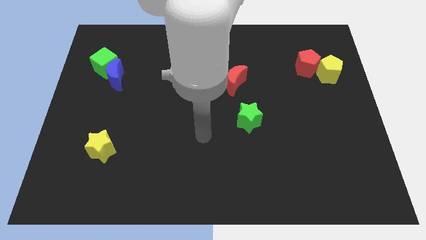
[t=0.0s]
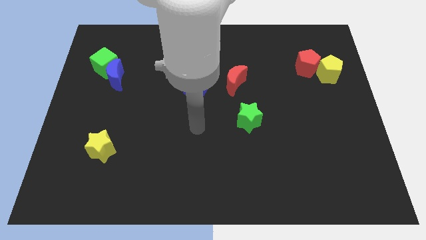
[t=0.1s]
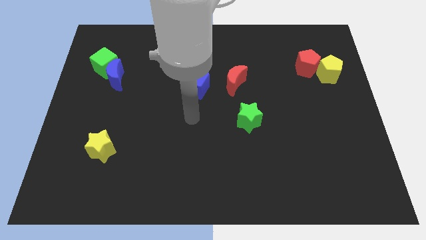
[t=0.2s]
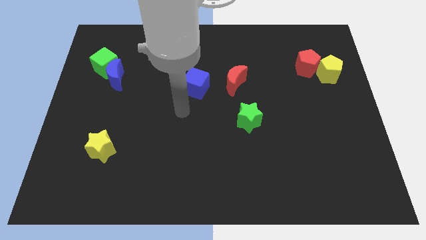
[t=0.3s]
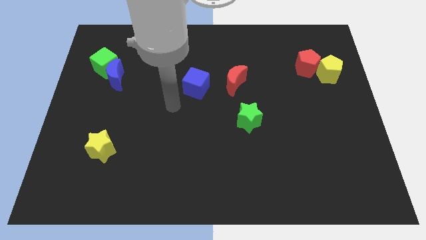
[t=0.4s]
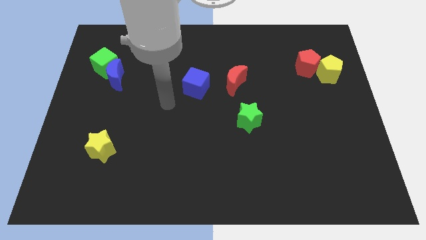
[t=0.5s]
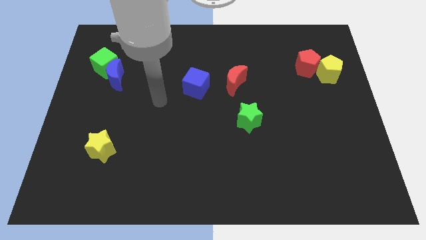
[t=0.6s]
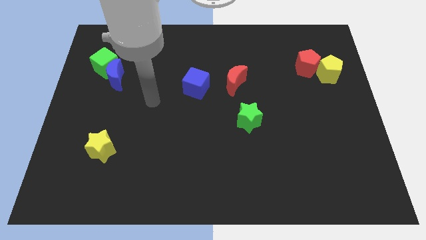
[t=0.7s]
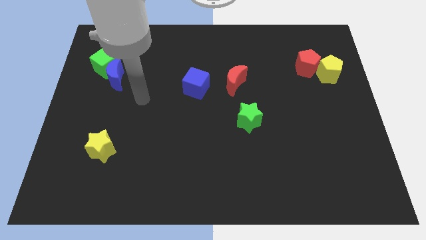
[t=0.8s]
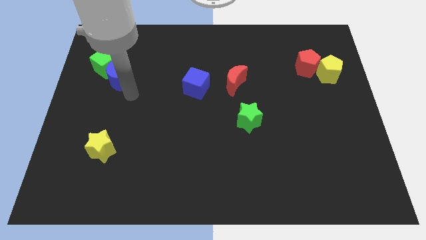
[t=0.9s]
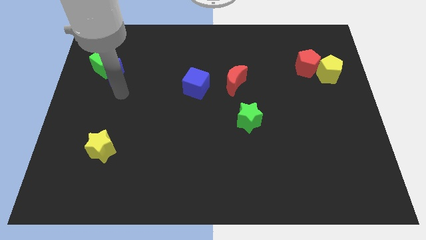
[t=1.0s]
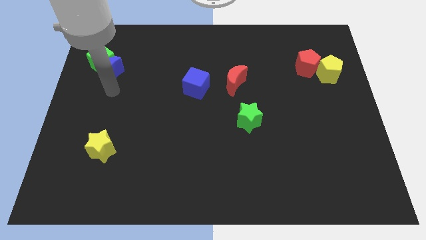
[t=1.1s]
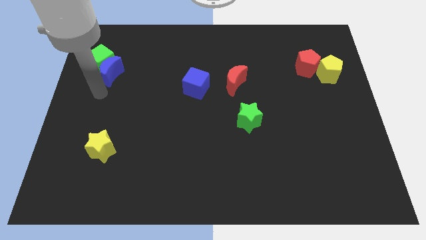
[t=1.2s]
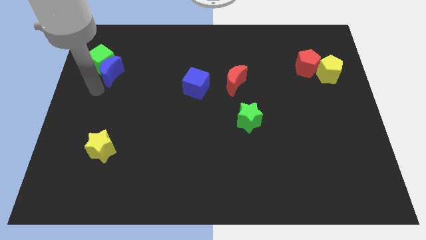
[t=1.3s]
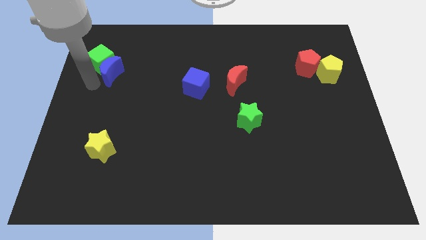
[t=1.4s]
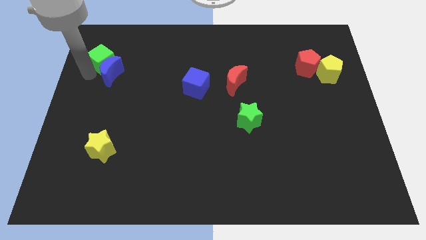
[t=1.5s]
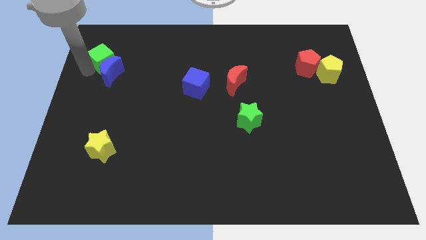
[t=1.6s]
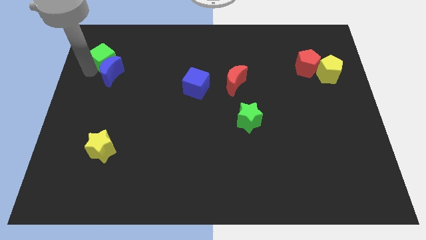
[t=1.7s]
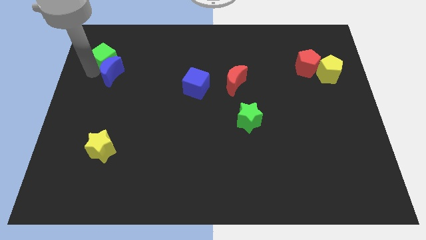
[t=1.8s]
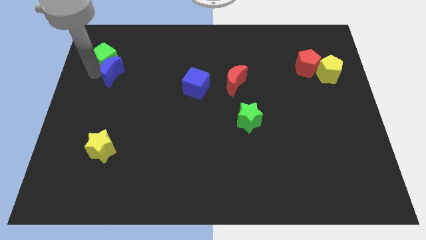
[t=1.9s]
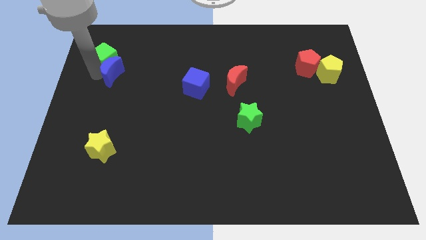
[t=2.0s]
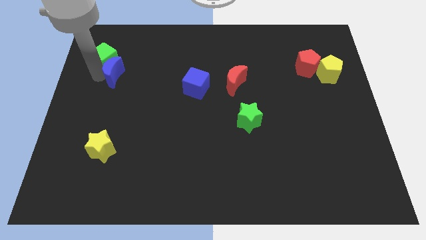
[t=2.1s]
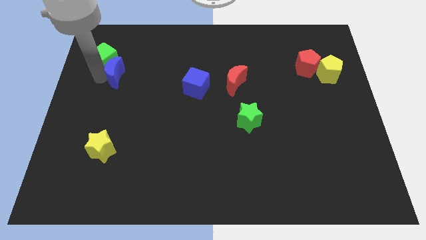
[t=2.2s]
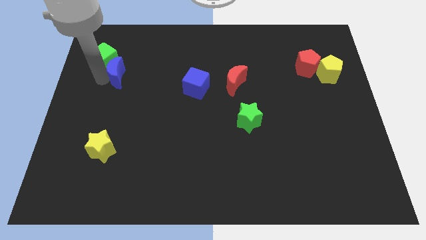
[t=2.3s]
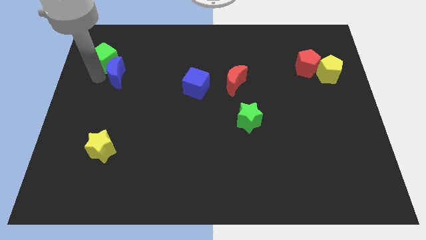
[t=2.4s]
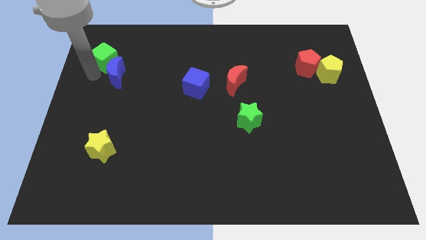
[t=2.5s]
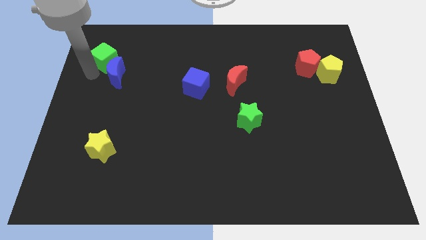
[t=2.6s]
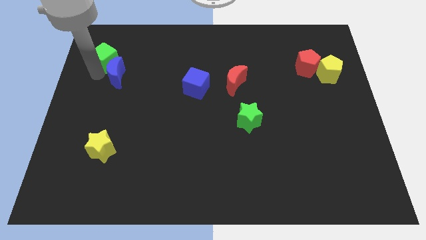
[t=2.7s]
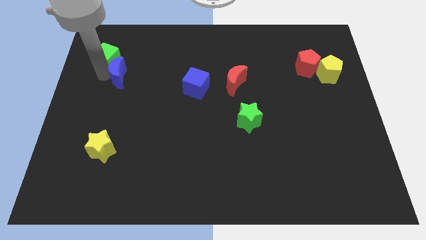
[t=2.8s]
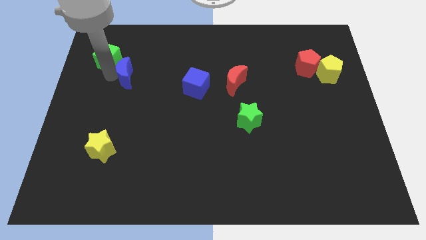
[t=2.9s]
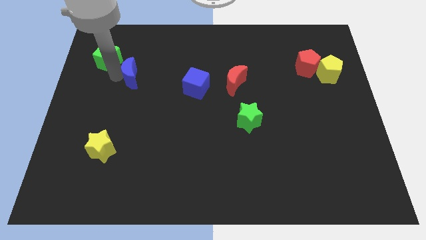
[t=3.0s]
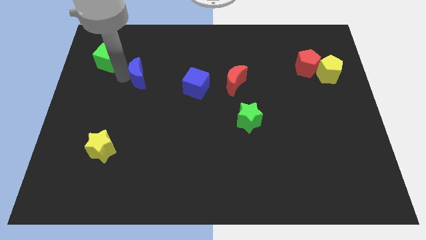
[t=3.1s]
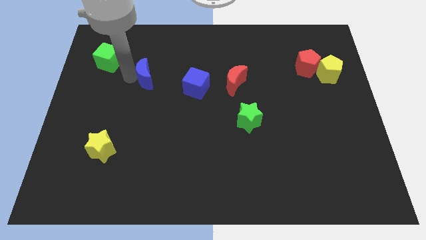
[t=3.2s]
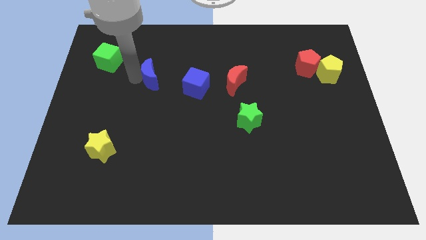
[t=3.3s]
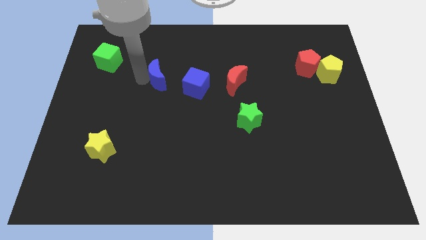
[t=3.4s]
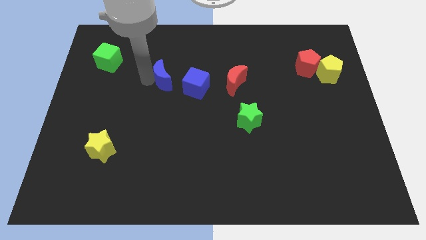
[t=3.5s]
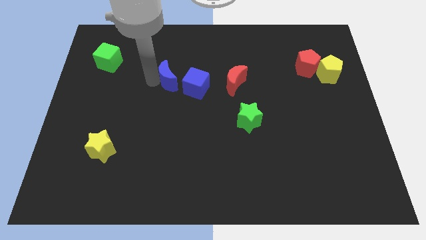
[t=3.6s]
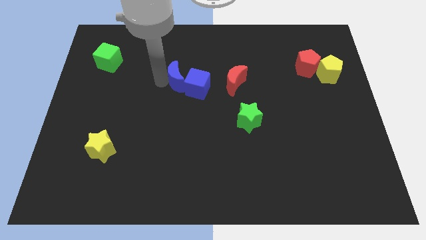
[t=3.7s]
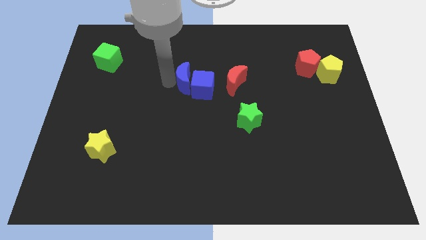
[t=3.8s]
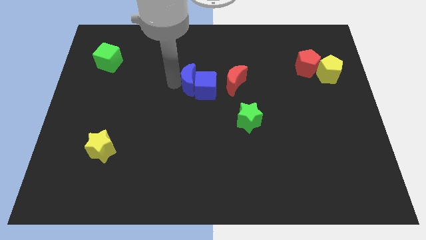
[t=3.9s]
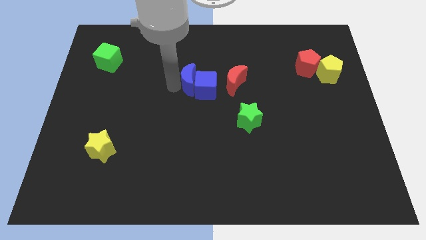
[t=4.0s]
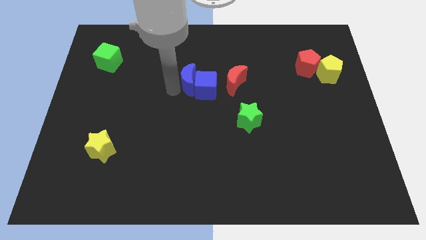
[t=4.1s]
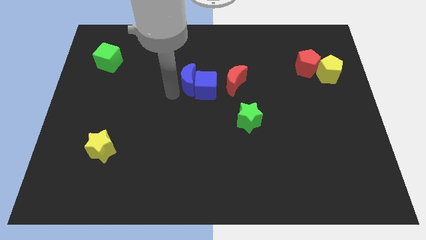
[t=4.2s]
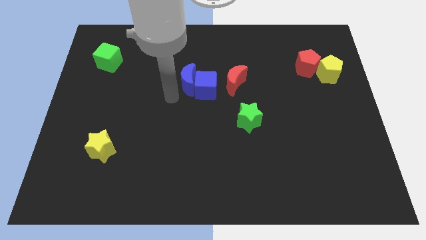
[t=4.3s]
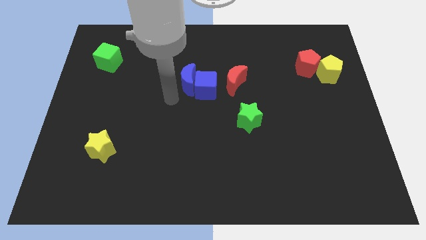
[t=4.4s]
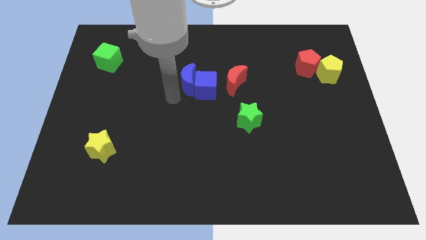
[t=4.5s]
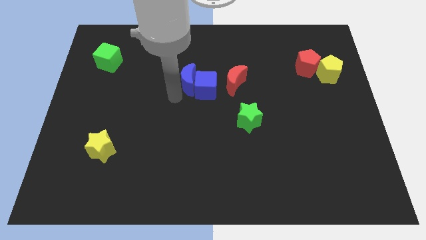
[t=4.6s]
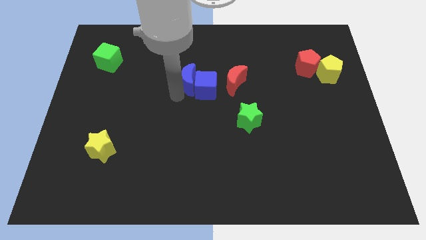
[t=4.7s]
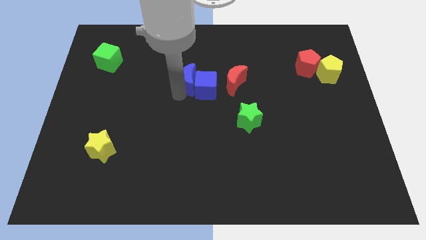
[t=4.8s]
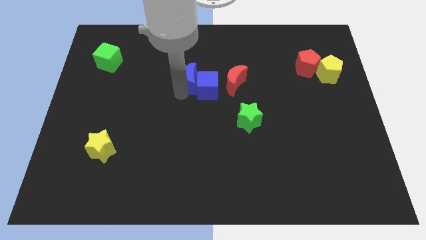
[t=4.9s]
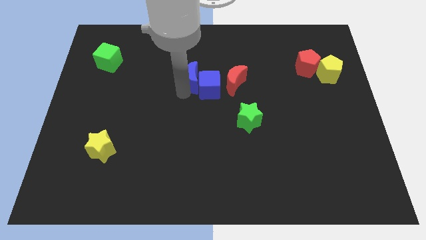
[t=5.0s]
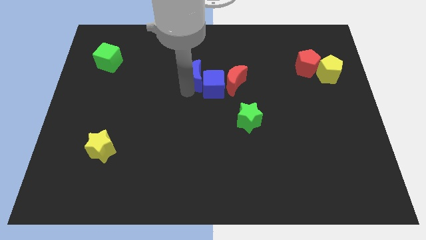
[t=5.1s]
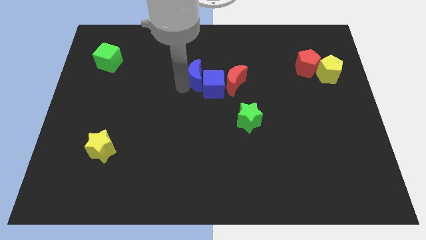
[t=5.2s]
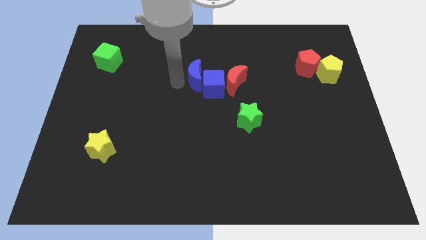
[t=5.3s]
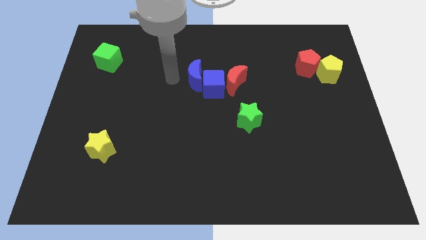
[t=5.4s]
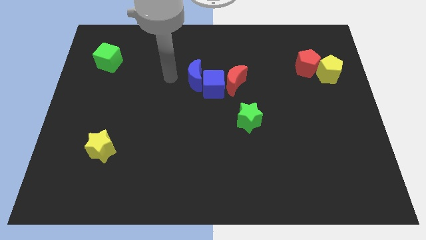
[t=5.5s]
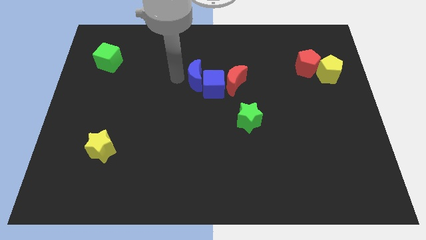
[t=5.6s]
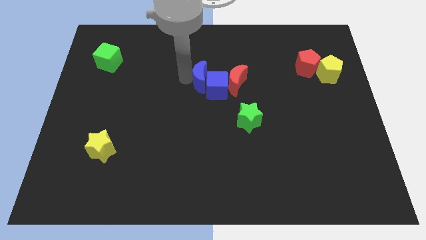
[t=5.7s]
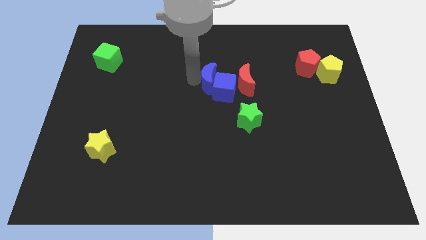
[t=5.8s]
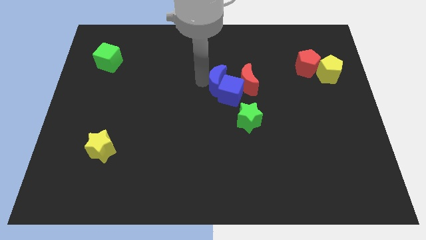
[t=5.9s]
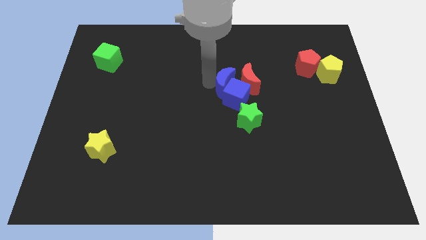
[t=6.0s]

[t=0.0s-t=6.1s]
move the blue moon towards the red moon
